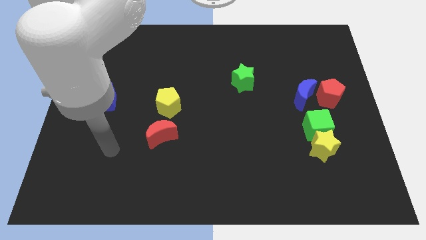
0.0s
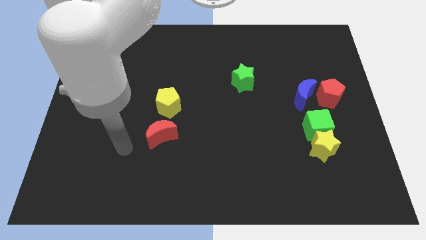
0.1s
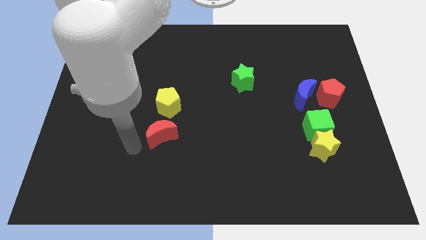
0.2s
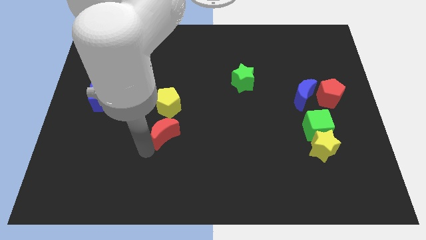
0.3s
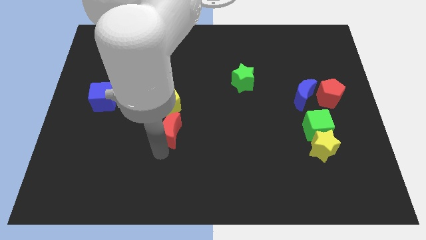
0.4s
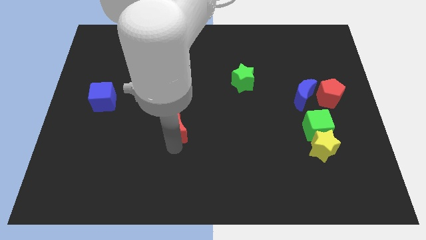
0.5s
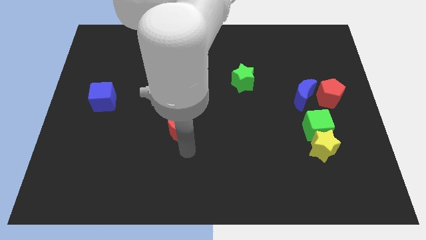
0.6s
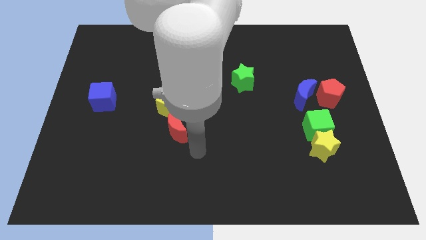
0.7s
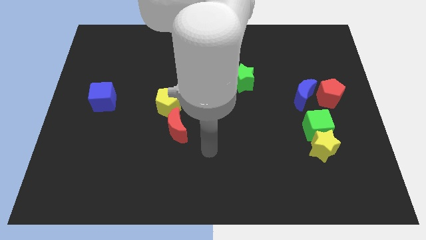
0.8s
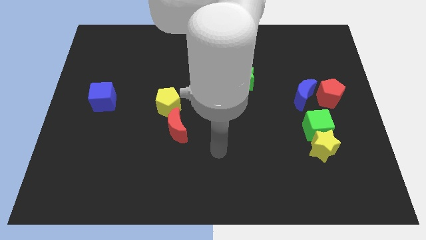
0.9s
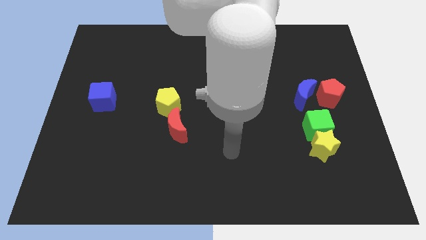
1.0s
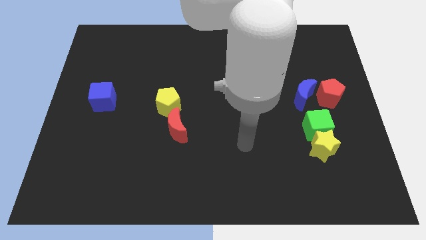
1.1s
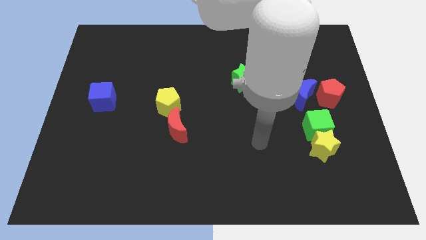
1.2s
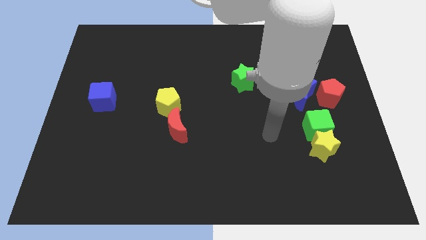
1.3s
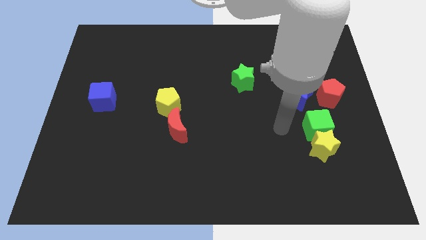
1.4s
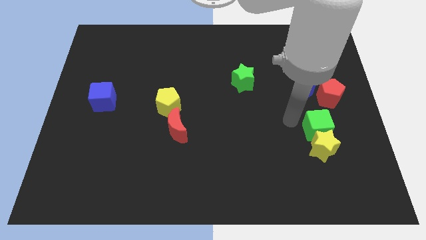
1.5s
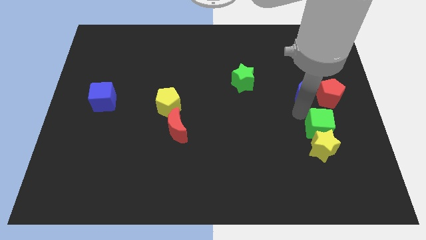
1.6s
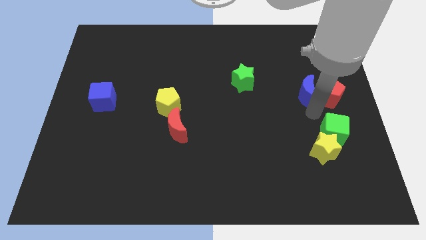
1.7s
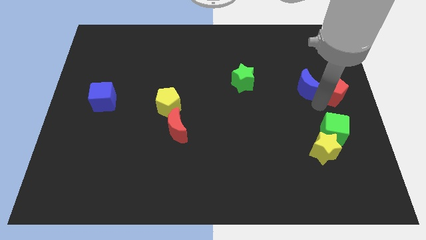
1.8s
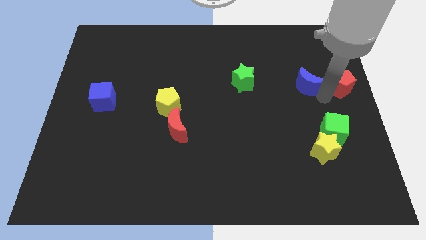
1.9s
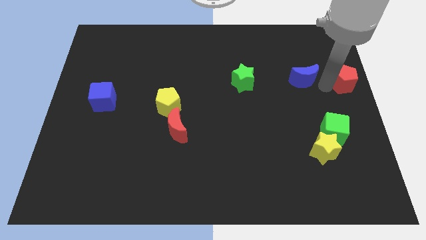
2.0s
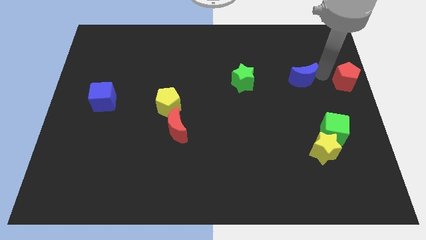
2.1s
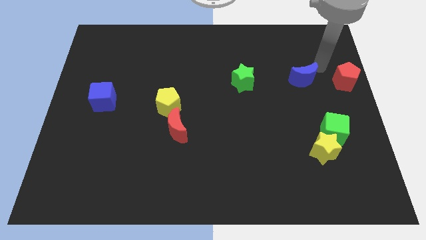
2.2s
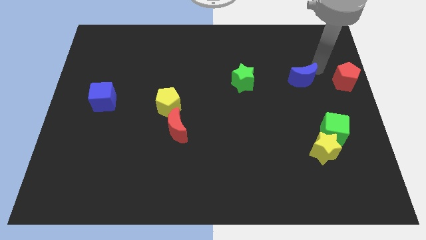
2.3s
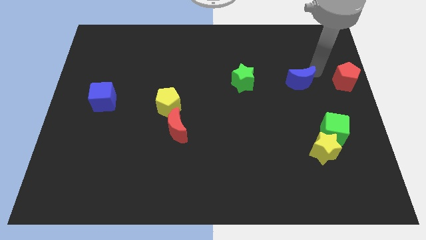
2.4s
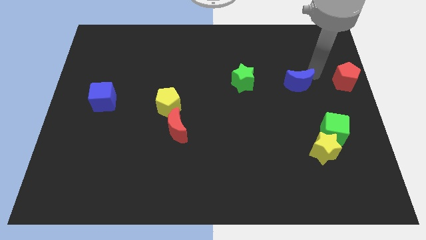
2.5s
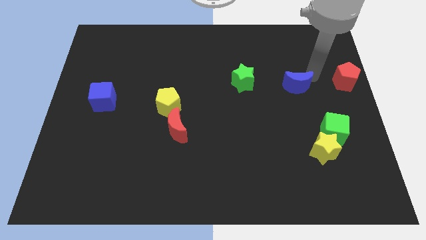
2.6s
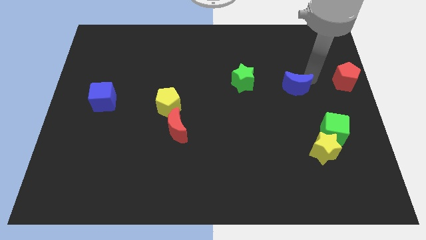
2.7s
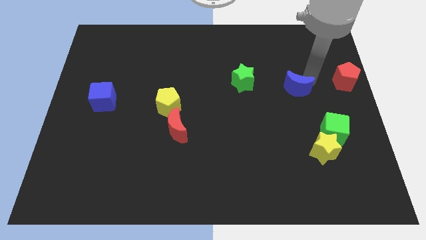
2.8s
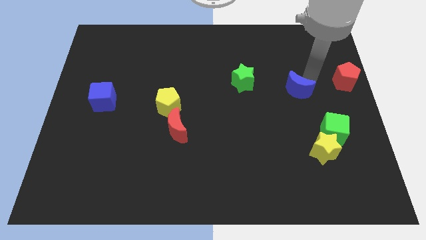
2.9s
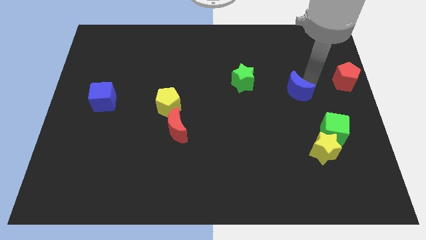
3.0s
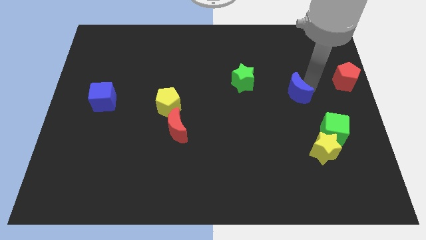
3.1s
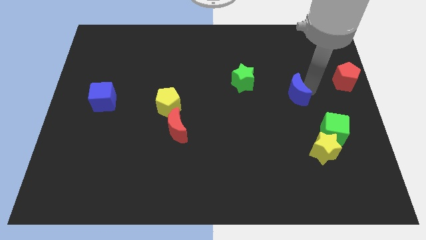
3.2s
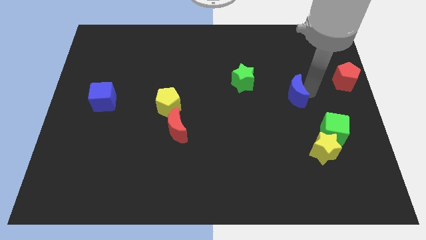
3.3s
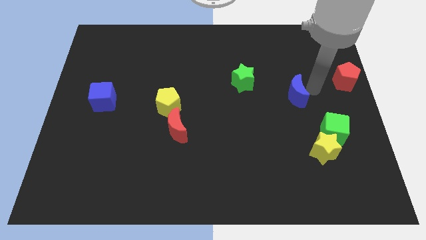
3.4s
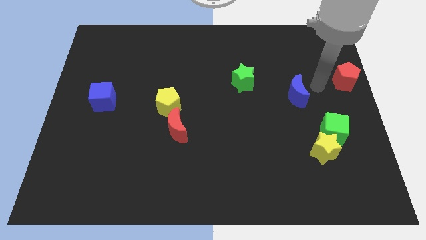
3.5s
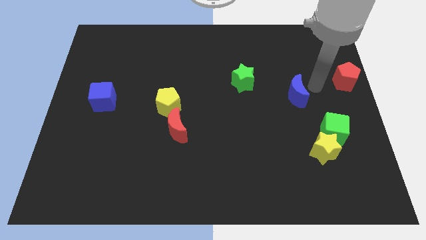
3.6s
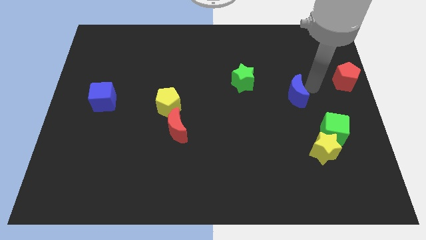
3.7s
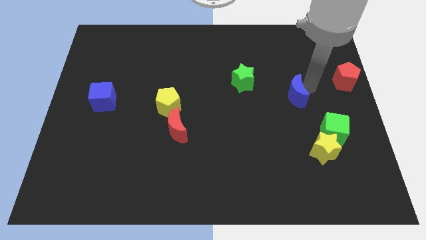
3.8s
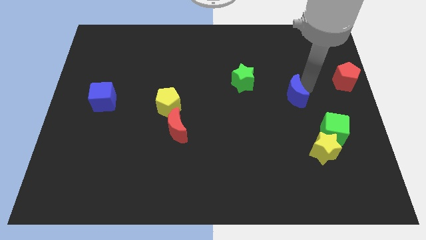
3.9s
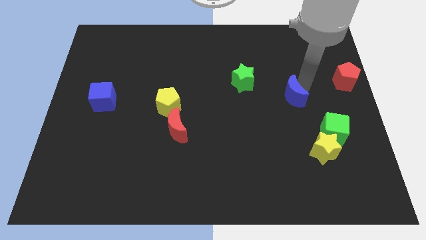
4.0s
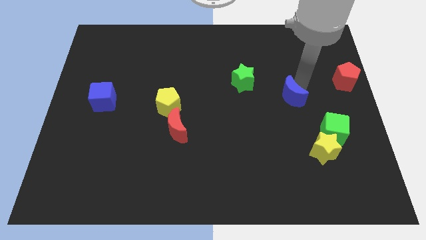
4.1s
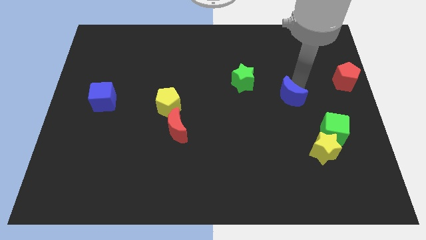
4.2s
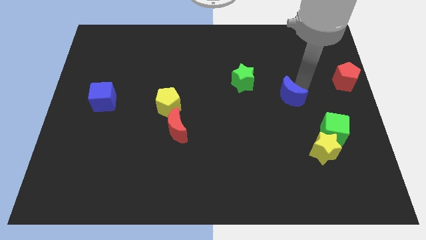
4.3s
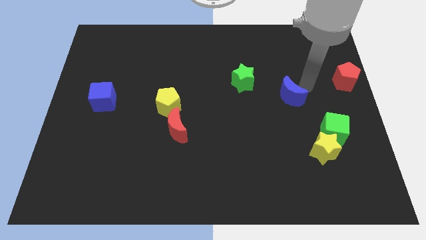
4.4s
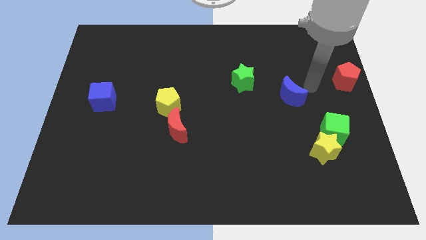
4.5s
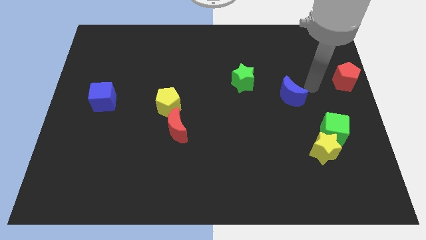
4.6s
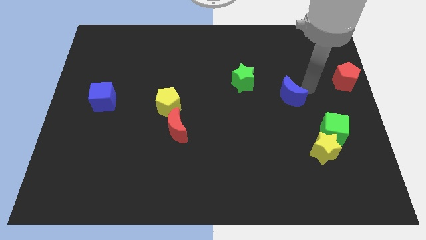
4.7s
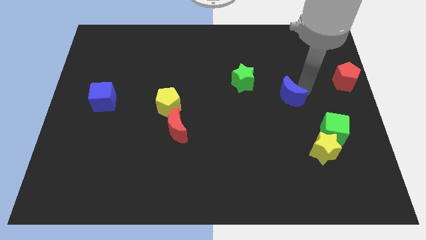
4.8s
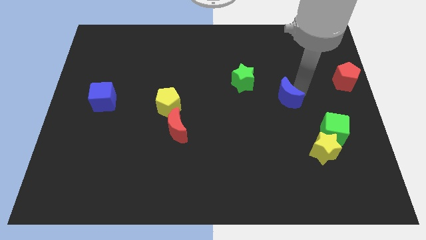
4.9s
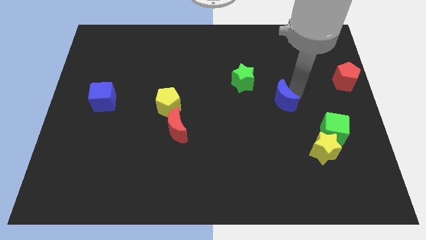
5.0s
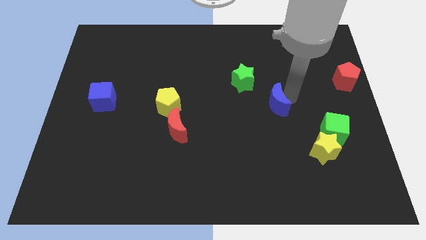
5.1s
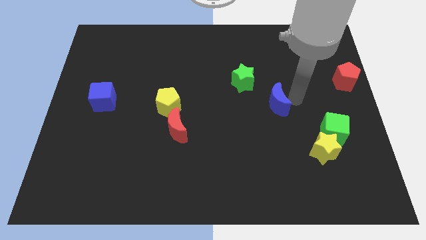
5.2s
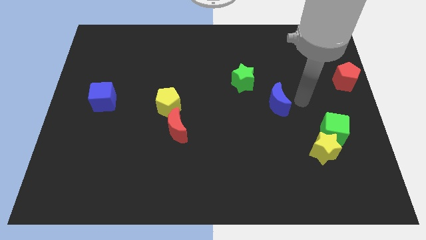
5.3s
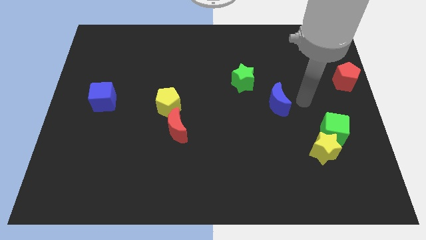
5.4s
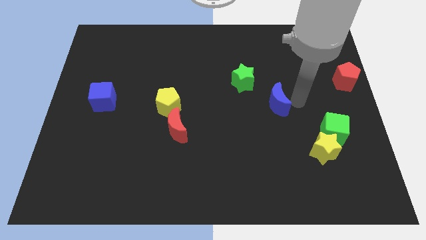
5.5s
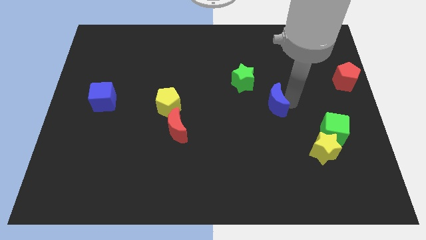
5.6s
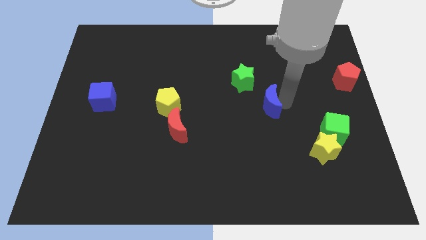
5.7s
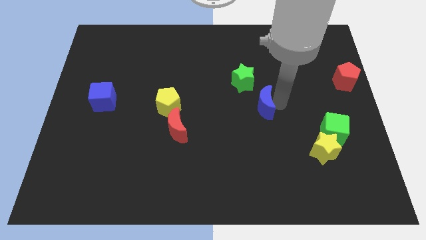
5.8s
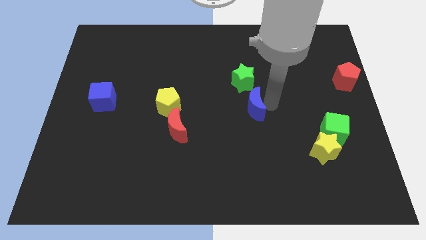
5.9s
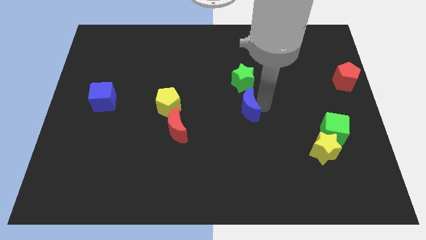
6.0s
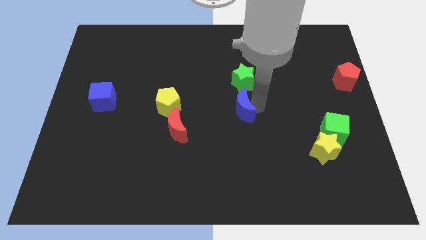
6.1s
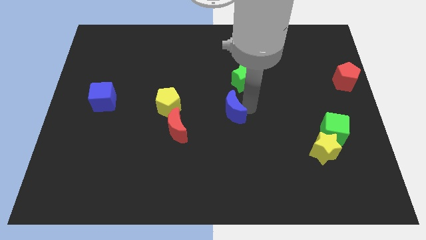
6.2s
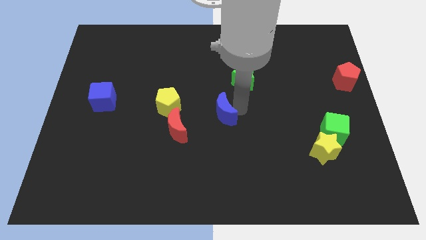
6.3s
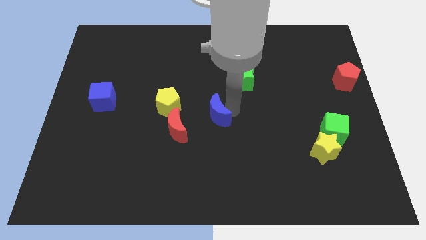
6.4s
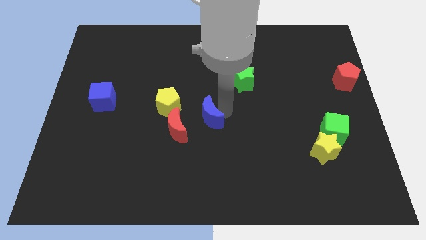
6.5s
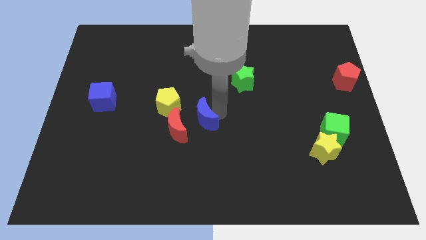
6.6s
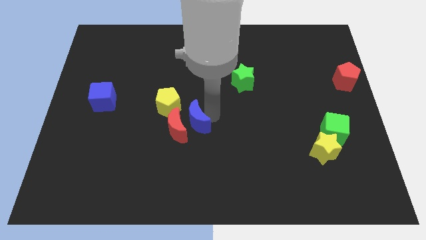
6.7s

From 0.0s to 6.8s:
slide the blue moon to the red moon
